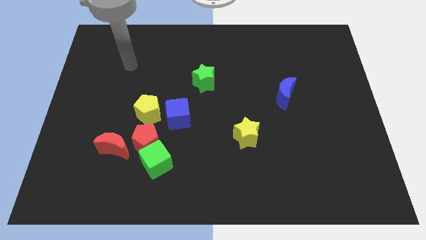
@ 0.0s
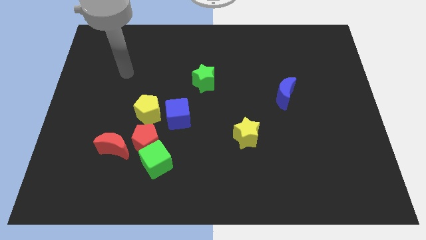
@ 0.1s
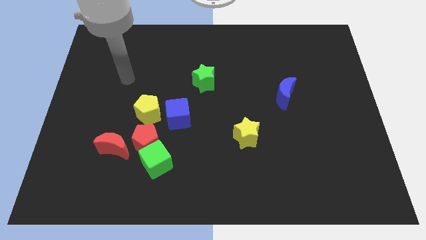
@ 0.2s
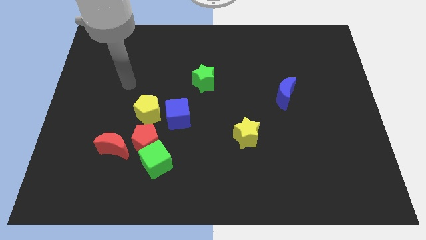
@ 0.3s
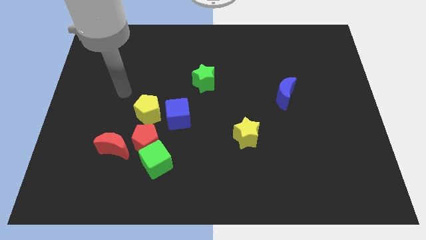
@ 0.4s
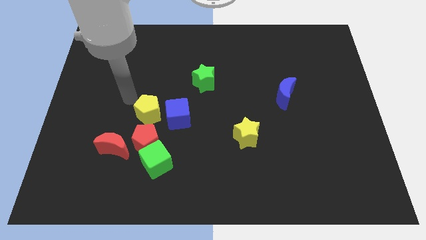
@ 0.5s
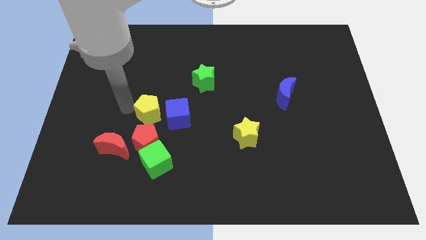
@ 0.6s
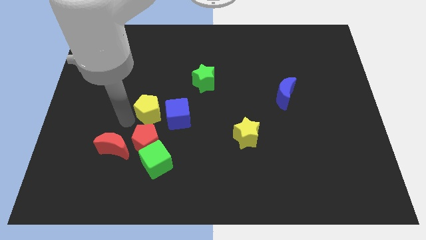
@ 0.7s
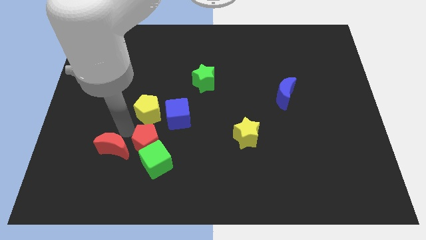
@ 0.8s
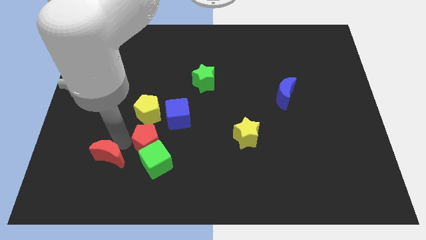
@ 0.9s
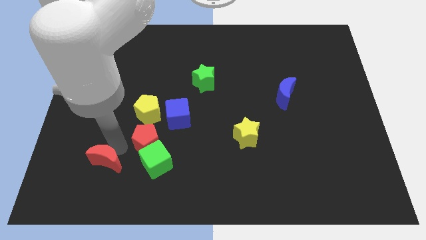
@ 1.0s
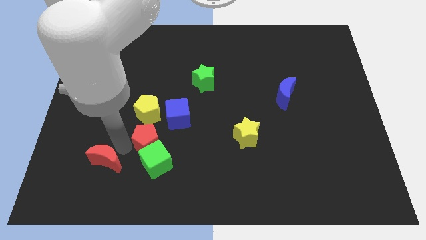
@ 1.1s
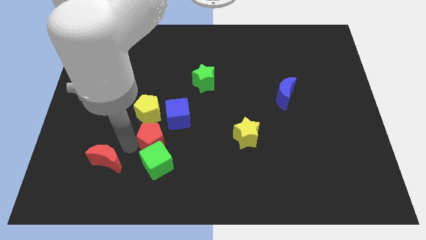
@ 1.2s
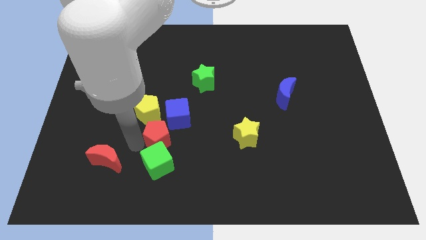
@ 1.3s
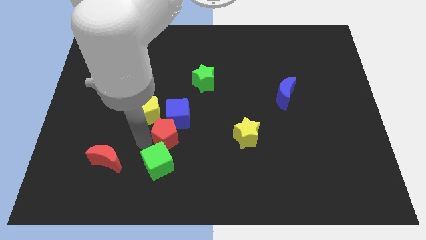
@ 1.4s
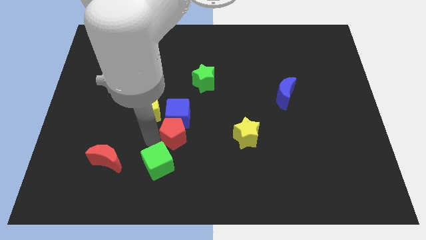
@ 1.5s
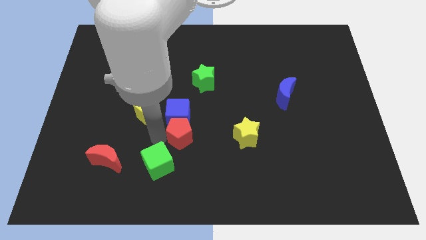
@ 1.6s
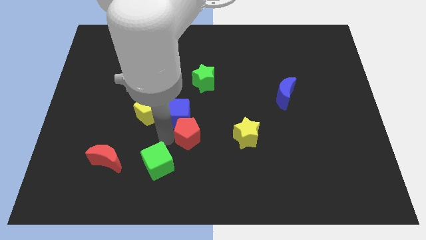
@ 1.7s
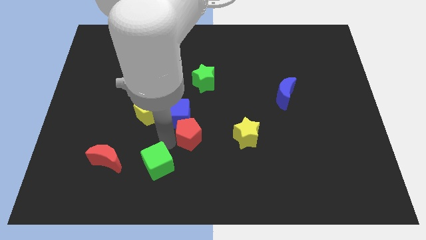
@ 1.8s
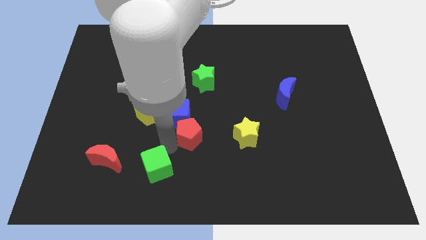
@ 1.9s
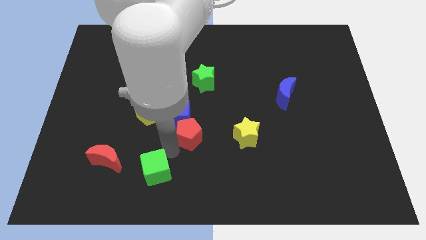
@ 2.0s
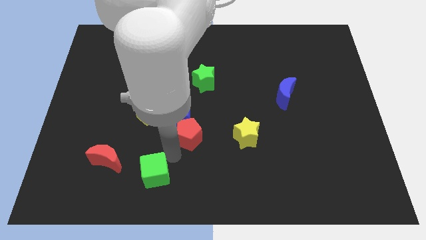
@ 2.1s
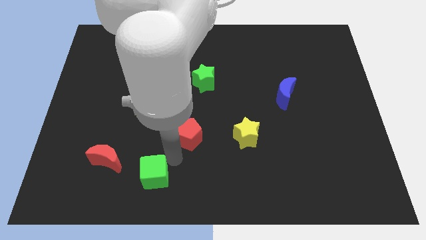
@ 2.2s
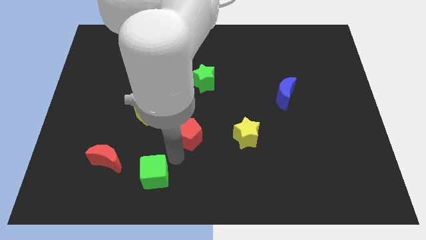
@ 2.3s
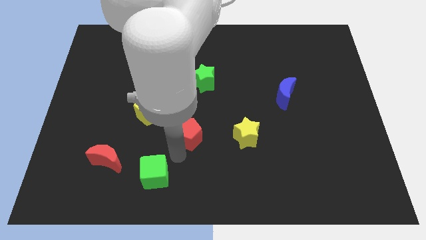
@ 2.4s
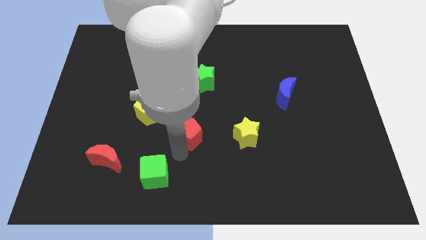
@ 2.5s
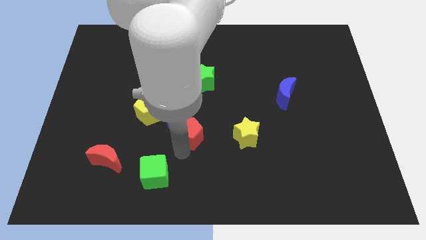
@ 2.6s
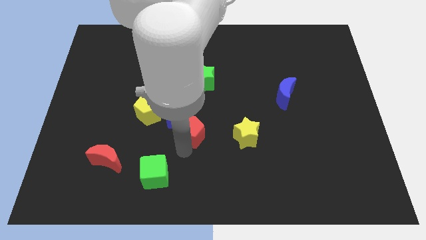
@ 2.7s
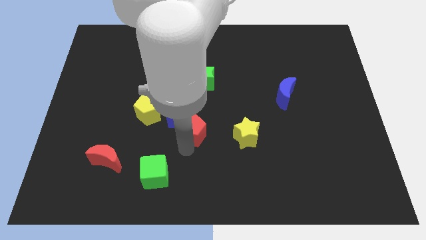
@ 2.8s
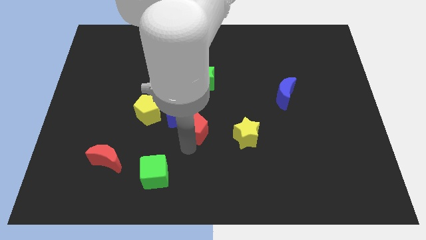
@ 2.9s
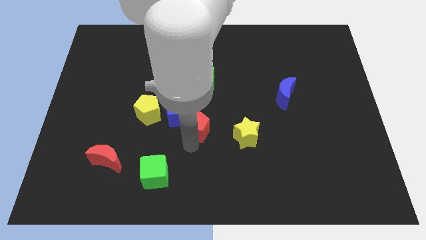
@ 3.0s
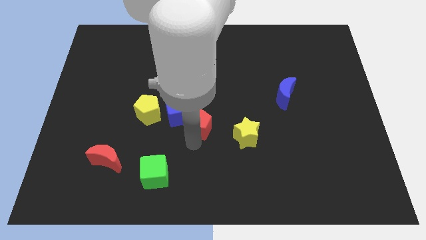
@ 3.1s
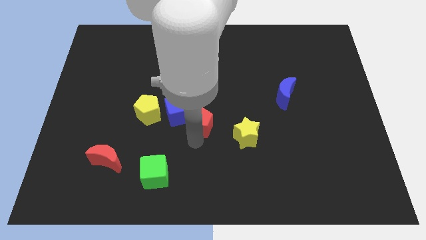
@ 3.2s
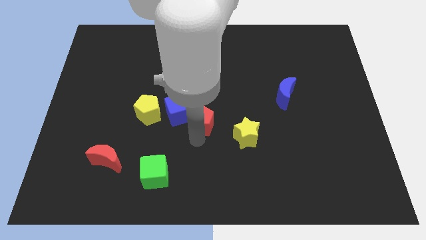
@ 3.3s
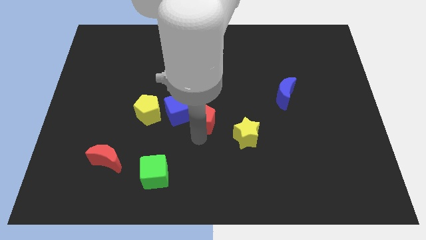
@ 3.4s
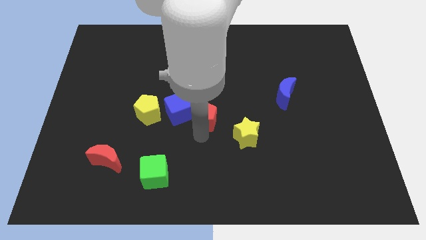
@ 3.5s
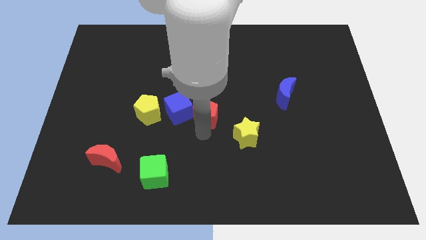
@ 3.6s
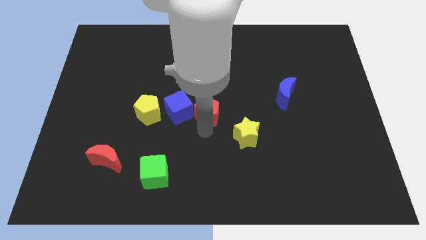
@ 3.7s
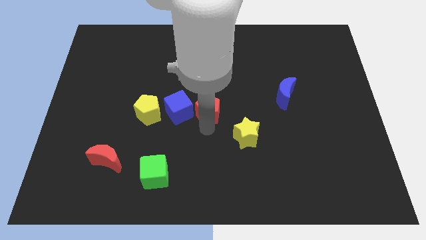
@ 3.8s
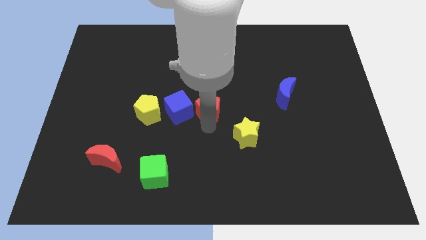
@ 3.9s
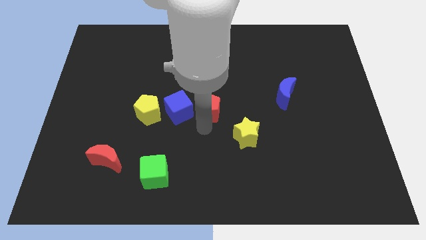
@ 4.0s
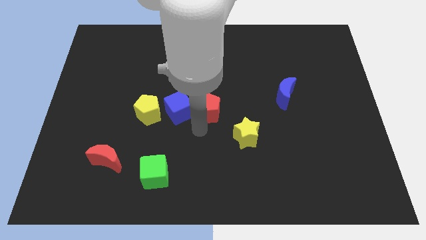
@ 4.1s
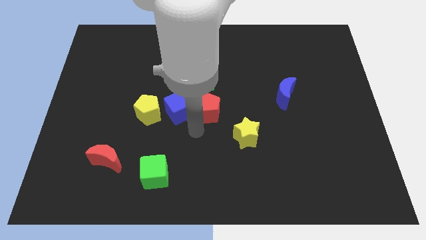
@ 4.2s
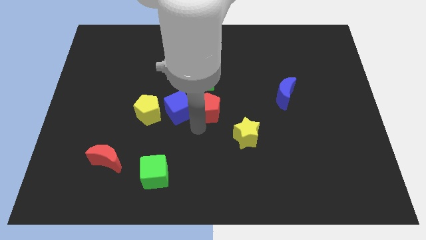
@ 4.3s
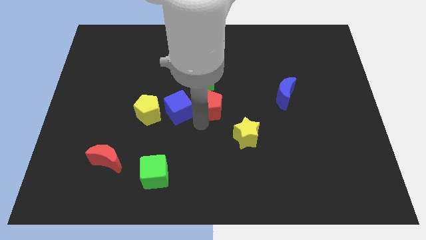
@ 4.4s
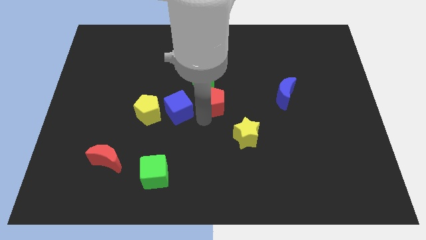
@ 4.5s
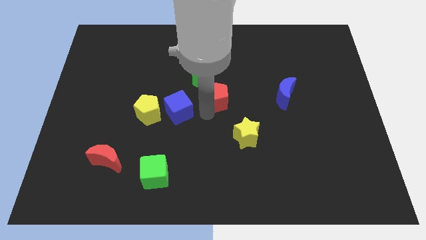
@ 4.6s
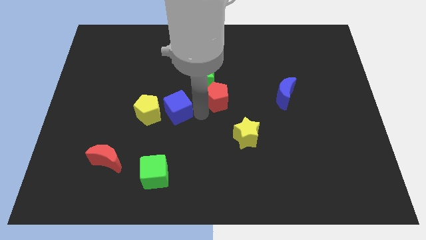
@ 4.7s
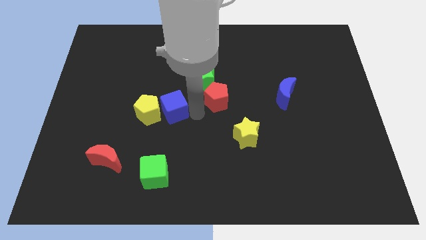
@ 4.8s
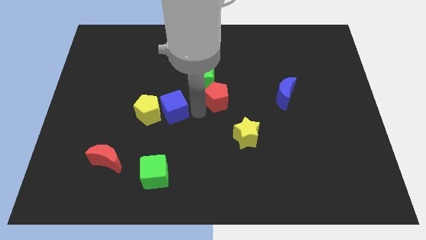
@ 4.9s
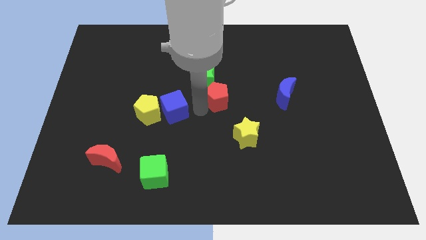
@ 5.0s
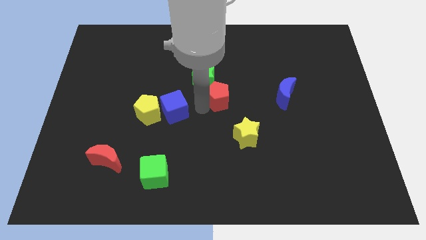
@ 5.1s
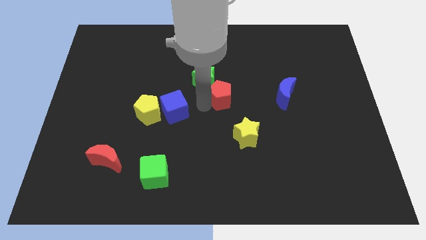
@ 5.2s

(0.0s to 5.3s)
push the red pentagon upwards and then right

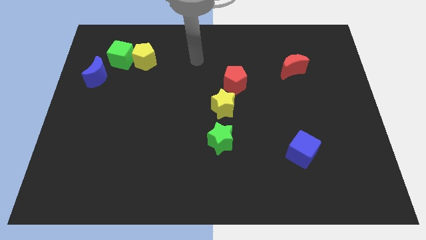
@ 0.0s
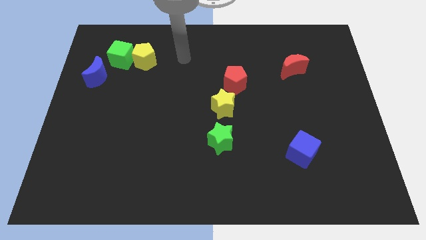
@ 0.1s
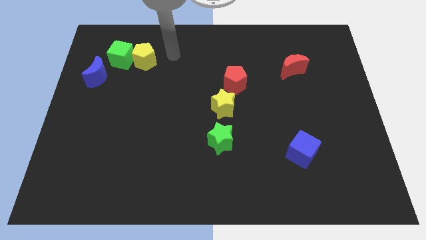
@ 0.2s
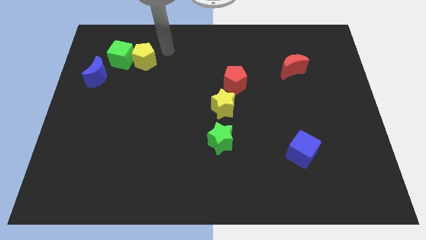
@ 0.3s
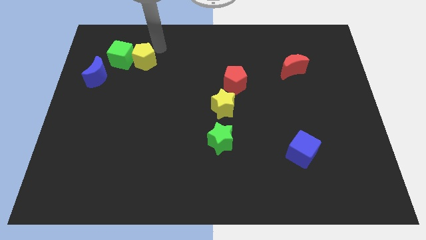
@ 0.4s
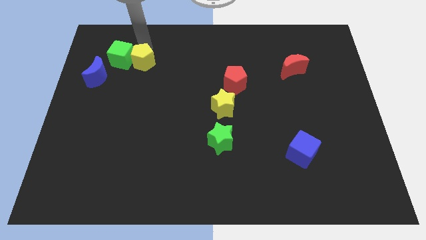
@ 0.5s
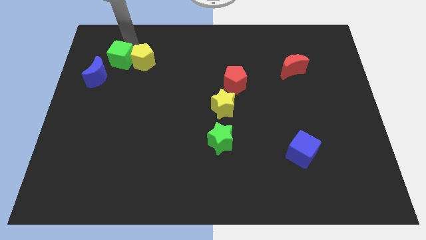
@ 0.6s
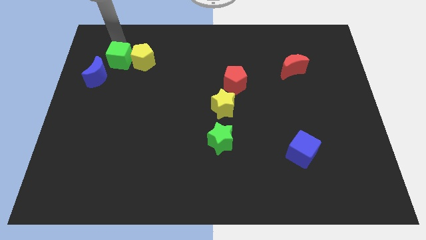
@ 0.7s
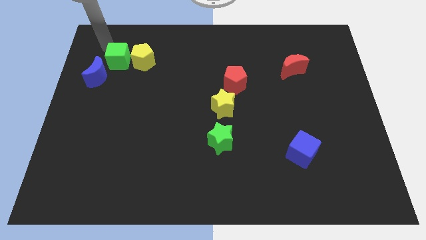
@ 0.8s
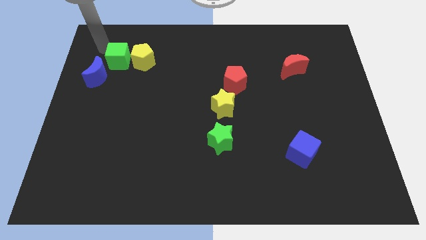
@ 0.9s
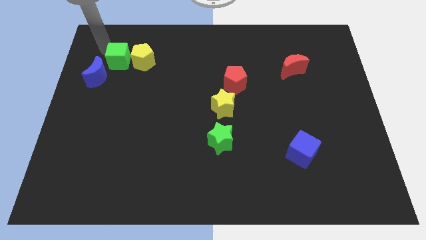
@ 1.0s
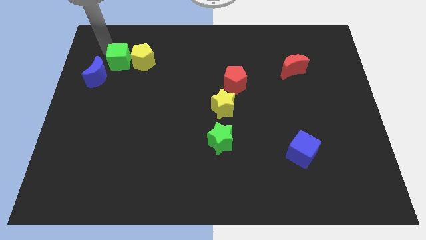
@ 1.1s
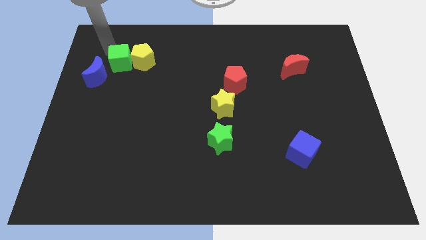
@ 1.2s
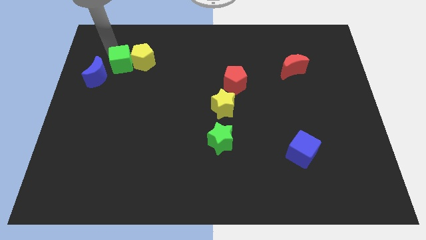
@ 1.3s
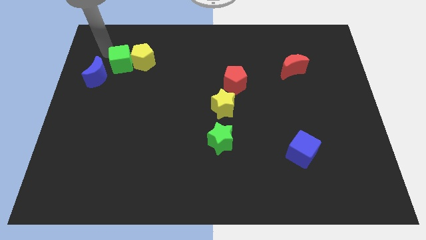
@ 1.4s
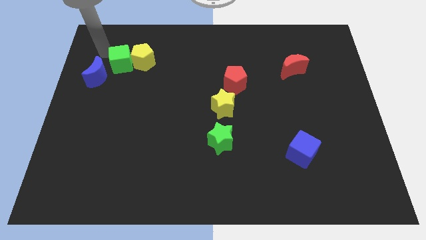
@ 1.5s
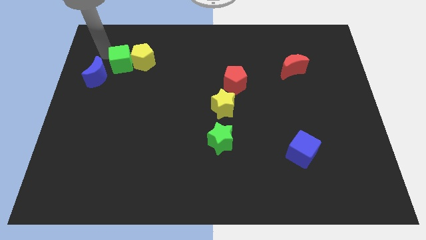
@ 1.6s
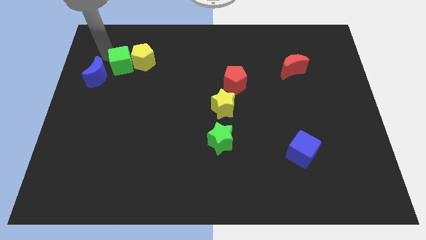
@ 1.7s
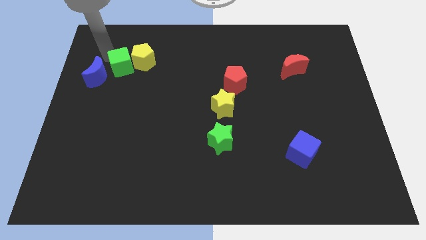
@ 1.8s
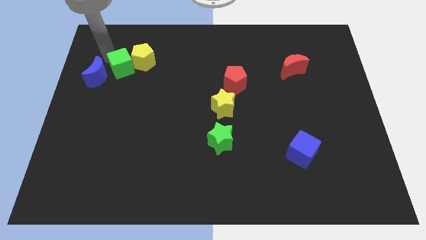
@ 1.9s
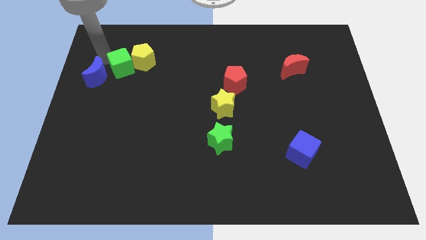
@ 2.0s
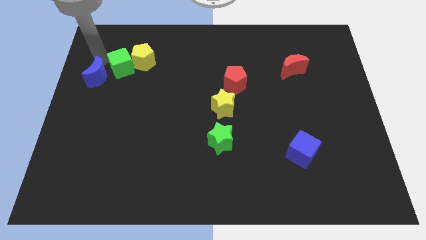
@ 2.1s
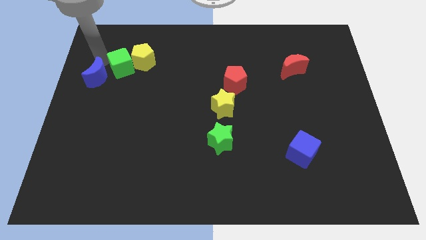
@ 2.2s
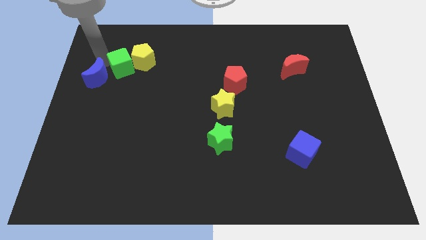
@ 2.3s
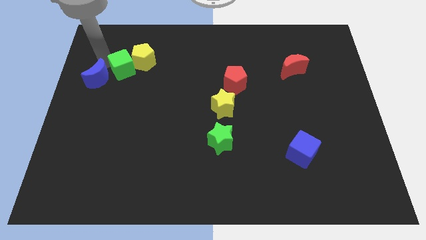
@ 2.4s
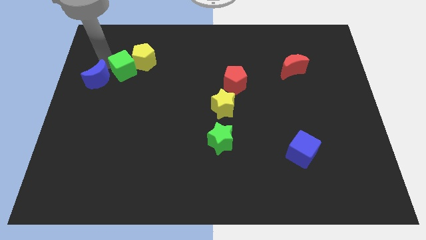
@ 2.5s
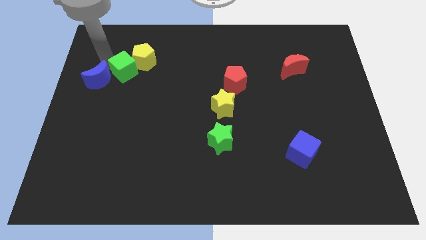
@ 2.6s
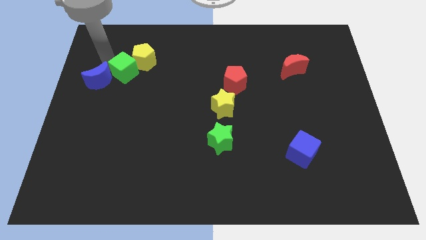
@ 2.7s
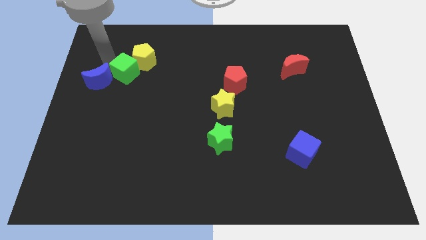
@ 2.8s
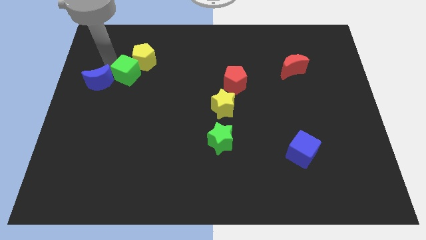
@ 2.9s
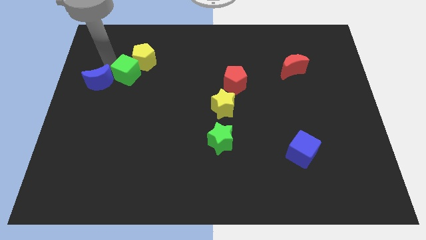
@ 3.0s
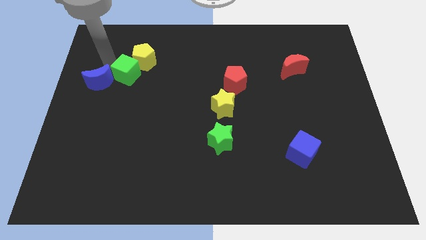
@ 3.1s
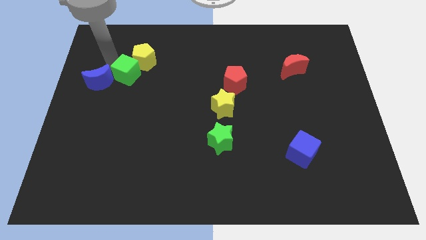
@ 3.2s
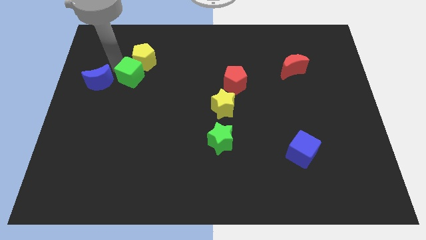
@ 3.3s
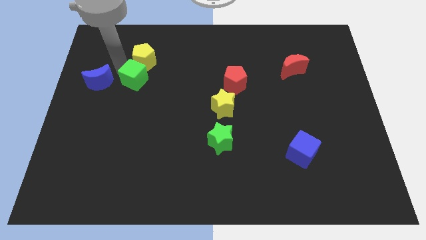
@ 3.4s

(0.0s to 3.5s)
slightly move the green cube diagonally downwards and right
